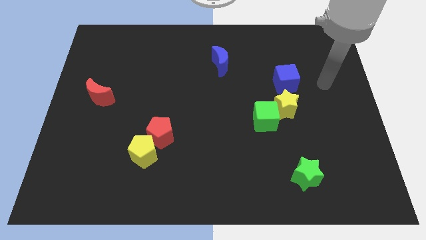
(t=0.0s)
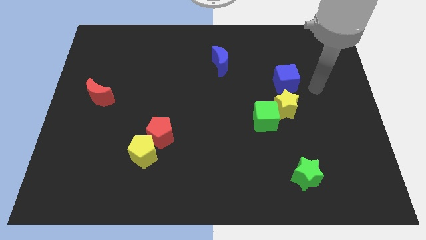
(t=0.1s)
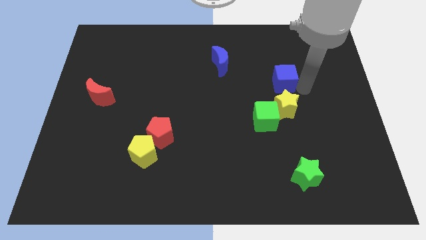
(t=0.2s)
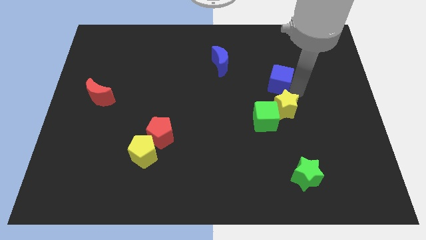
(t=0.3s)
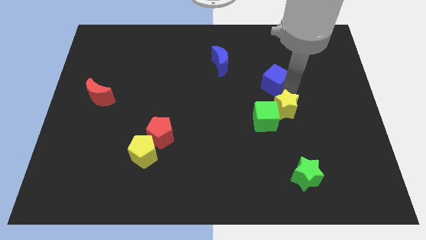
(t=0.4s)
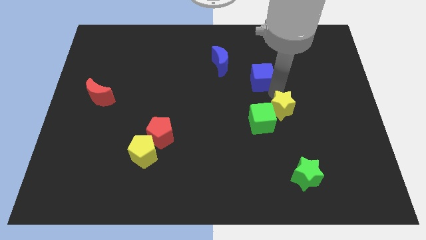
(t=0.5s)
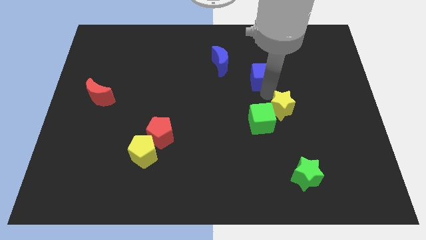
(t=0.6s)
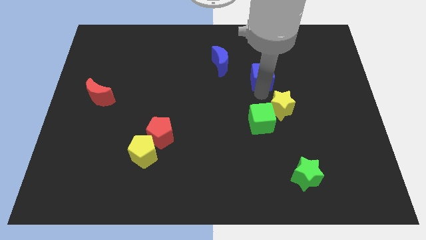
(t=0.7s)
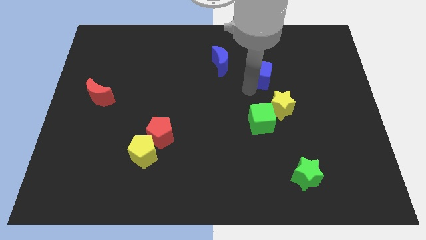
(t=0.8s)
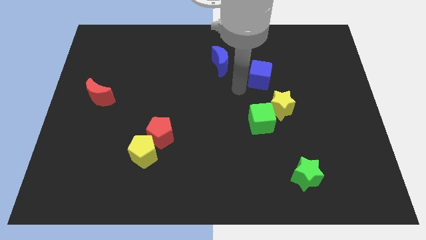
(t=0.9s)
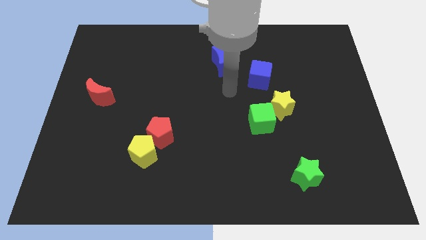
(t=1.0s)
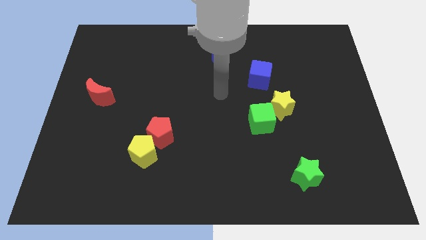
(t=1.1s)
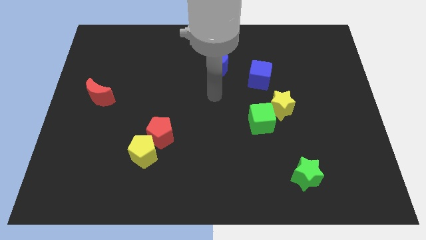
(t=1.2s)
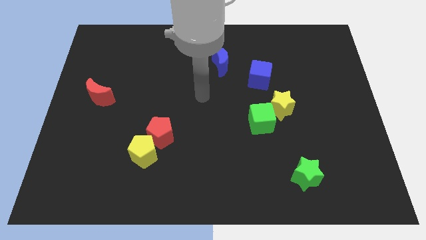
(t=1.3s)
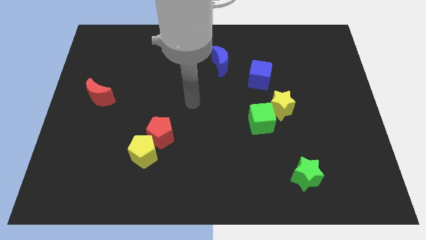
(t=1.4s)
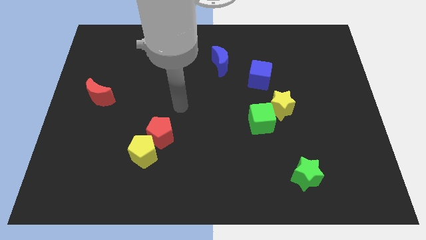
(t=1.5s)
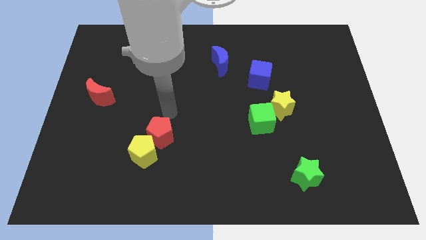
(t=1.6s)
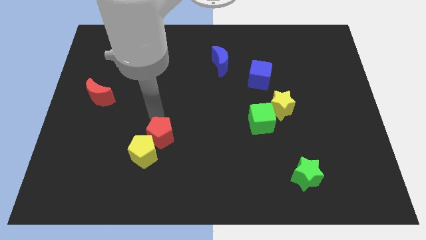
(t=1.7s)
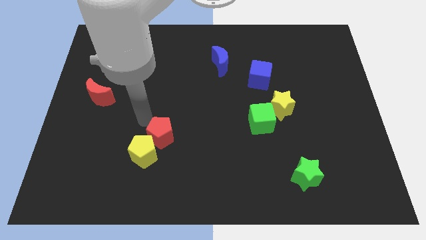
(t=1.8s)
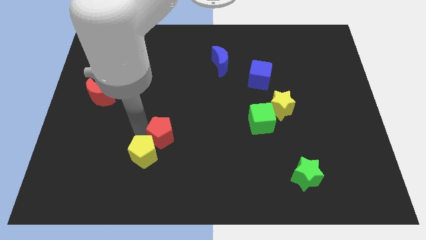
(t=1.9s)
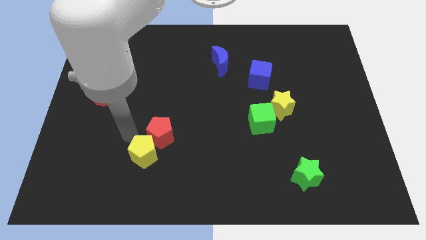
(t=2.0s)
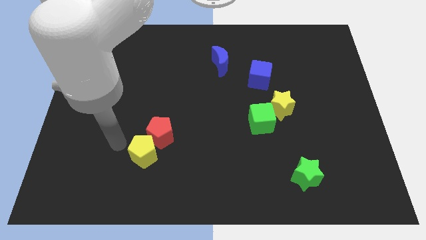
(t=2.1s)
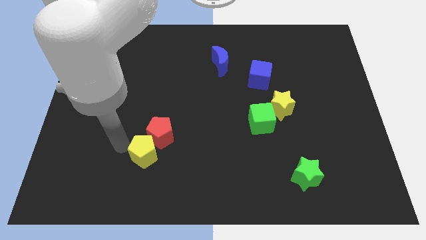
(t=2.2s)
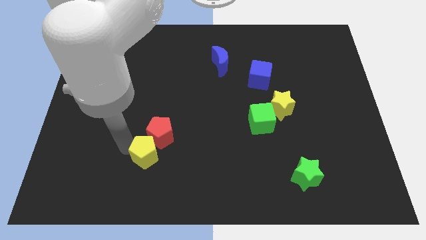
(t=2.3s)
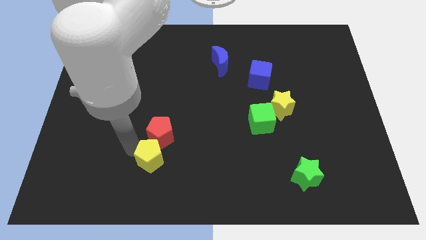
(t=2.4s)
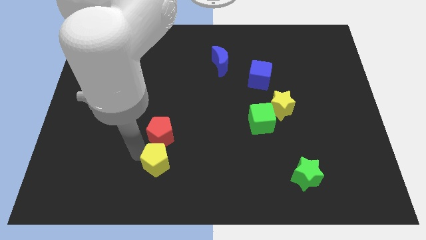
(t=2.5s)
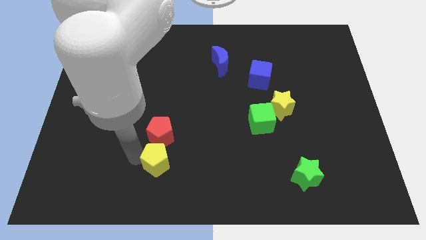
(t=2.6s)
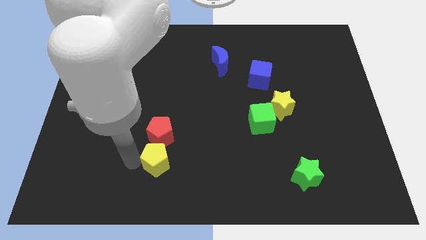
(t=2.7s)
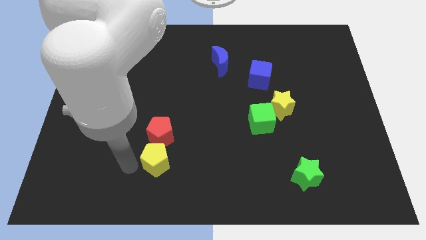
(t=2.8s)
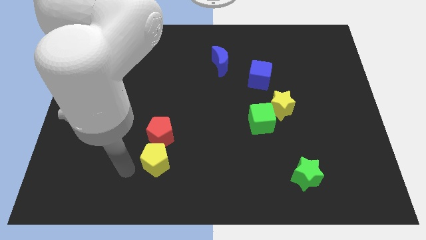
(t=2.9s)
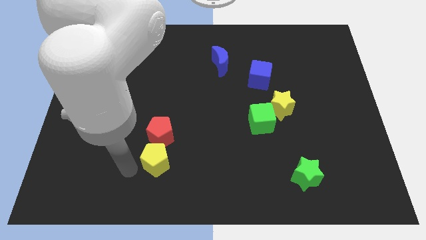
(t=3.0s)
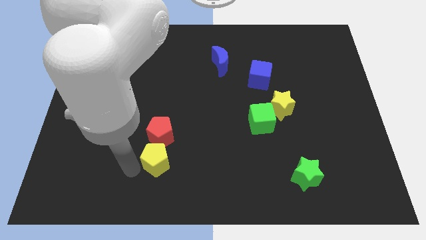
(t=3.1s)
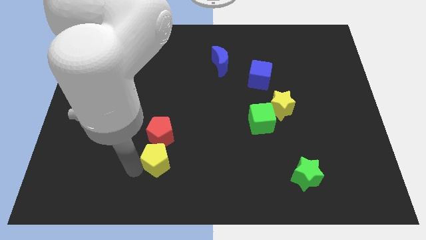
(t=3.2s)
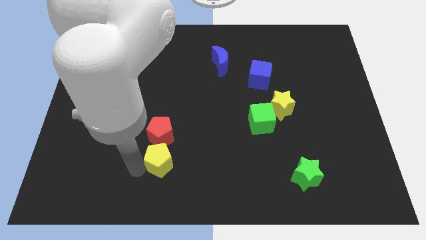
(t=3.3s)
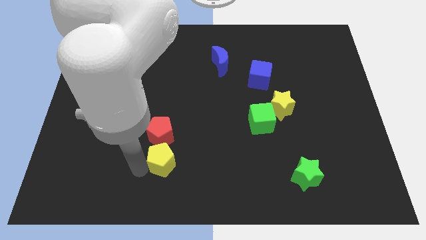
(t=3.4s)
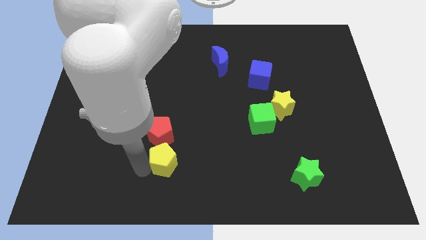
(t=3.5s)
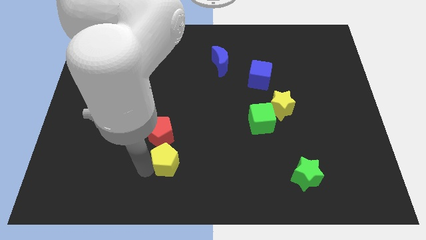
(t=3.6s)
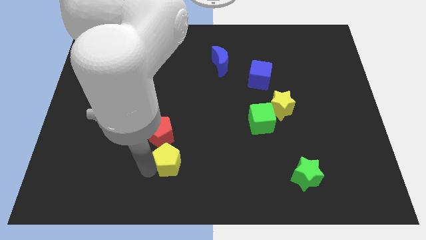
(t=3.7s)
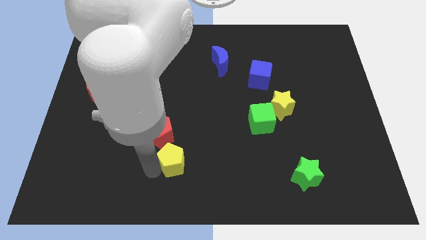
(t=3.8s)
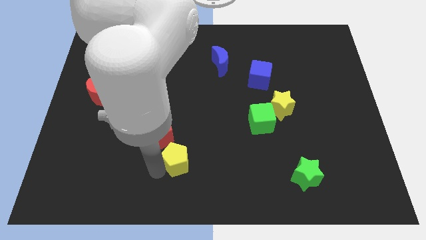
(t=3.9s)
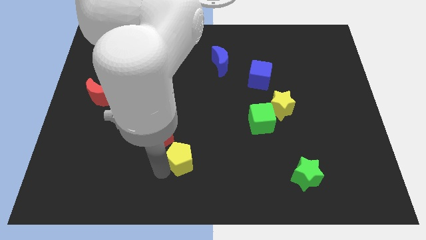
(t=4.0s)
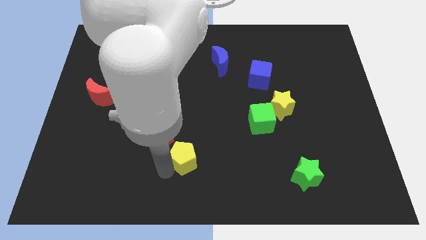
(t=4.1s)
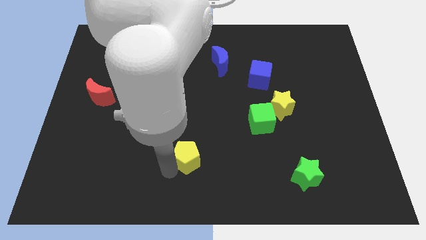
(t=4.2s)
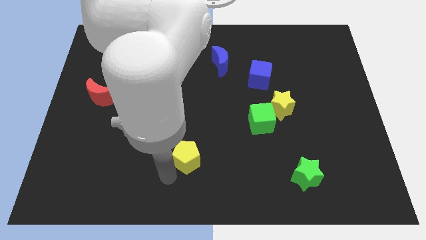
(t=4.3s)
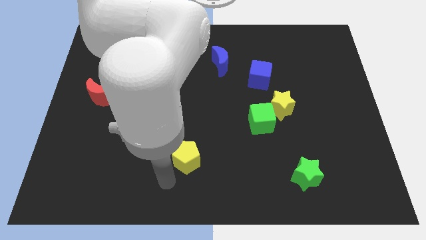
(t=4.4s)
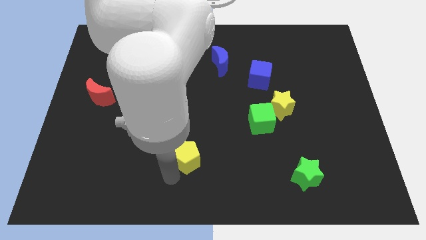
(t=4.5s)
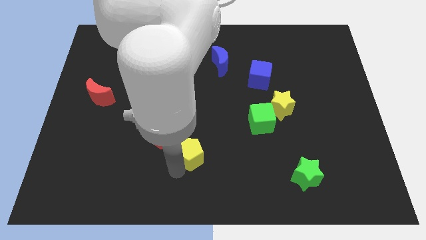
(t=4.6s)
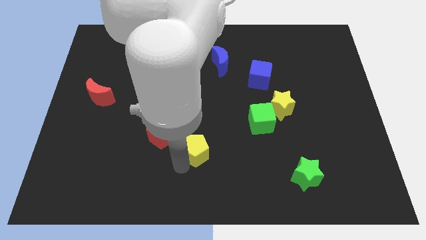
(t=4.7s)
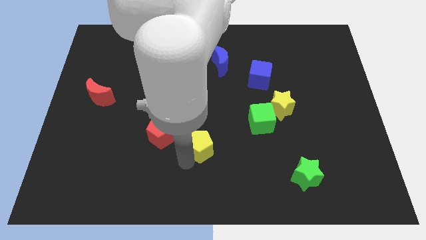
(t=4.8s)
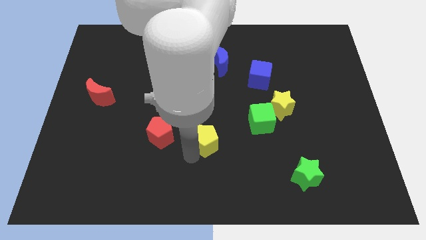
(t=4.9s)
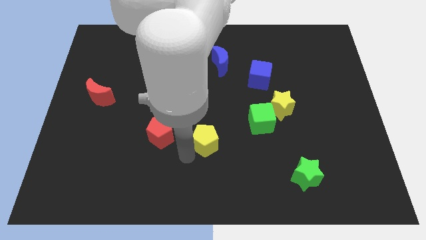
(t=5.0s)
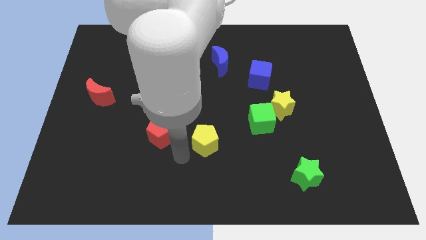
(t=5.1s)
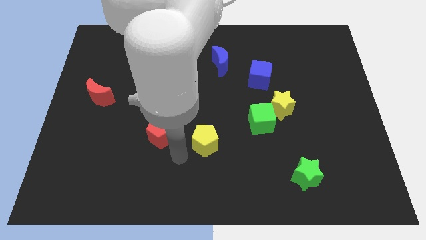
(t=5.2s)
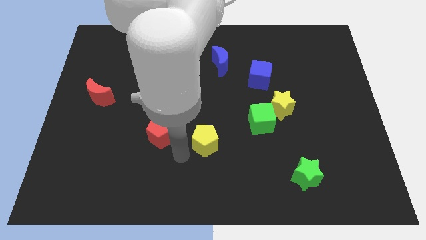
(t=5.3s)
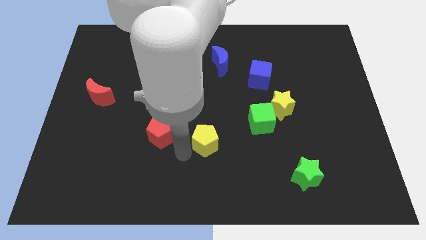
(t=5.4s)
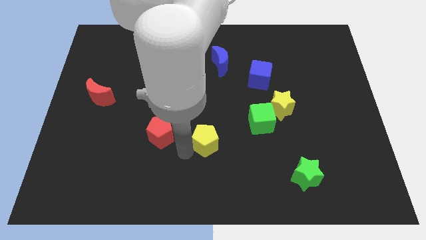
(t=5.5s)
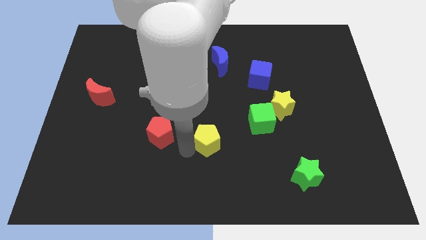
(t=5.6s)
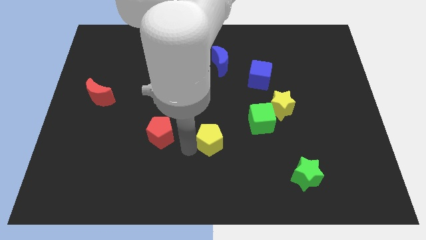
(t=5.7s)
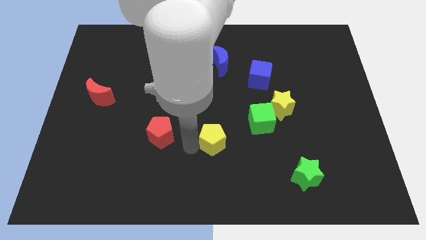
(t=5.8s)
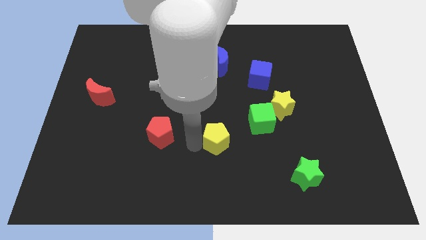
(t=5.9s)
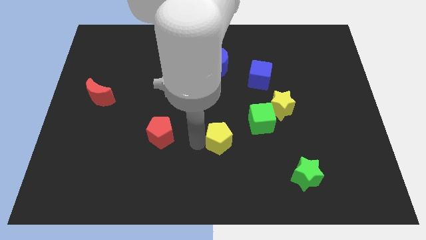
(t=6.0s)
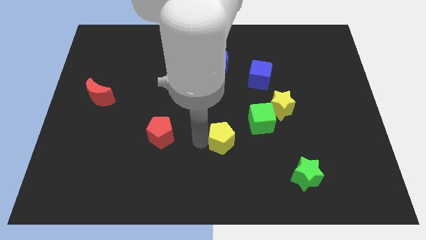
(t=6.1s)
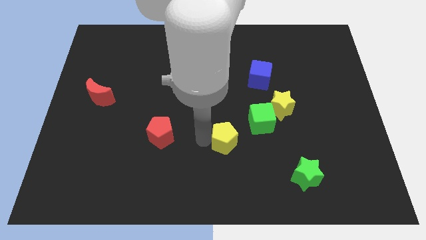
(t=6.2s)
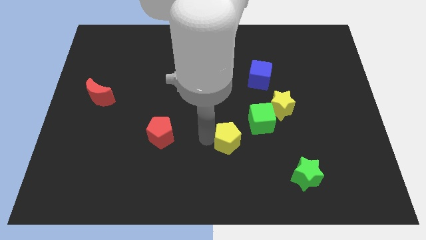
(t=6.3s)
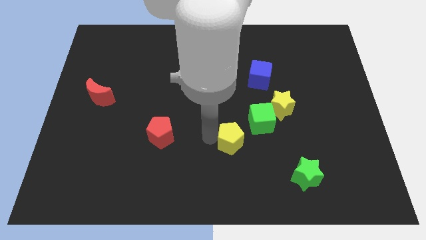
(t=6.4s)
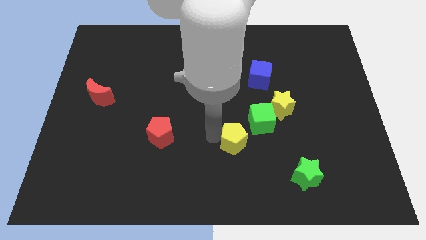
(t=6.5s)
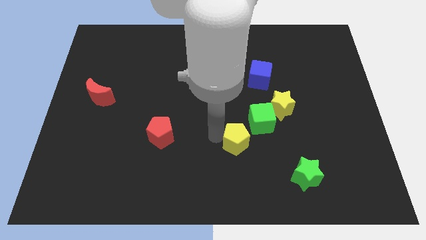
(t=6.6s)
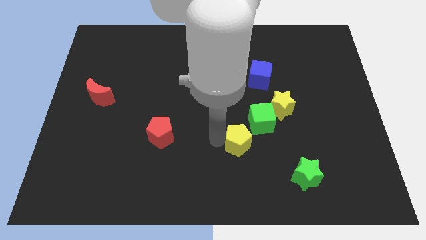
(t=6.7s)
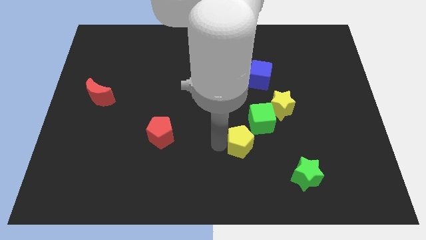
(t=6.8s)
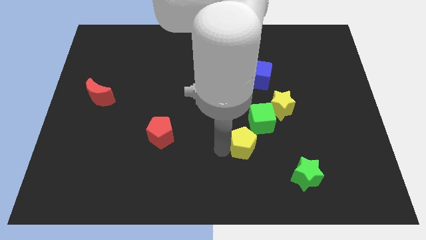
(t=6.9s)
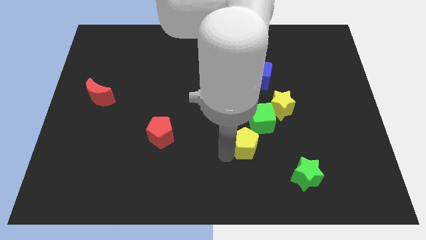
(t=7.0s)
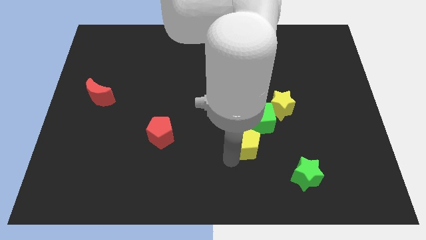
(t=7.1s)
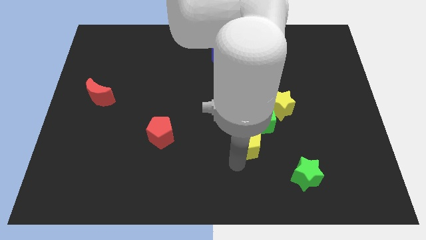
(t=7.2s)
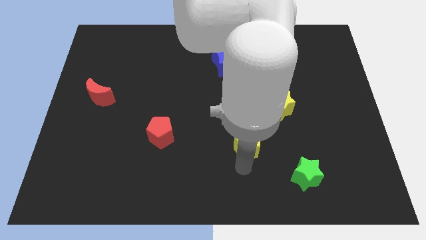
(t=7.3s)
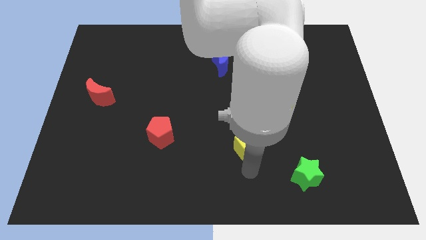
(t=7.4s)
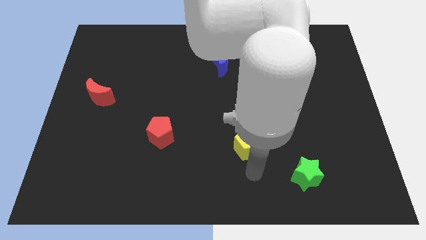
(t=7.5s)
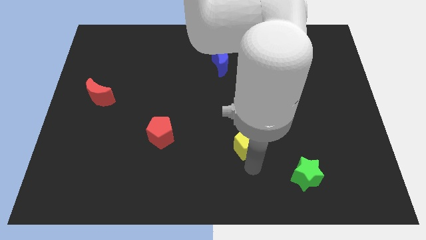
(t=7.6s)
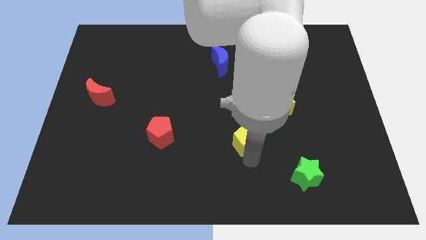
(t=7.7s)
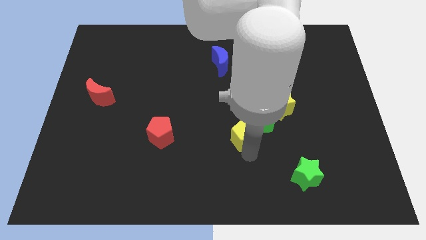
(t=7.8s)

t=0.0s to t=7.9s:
move the yellow pentagon close to the green cube
